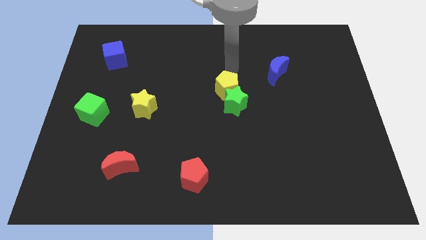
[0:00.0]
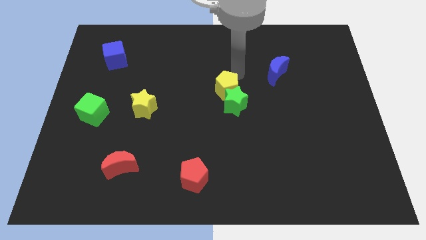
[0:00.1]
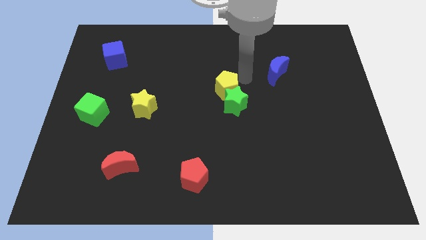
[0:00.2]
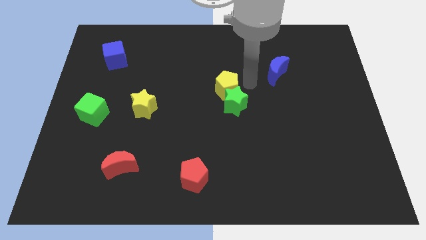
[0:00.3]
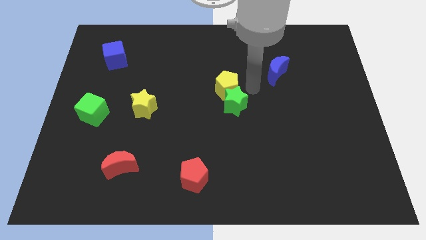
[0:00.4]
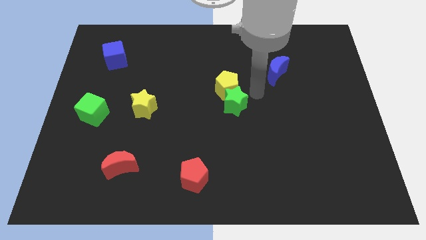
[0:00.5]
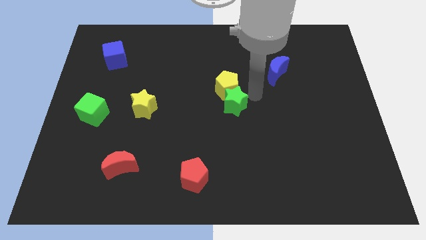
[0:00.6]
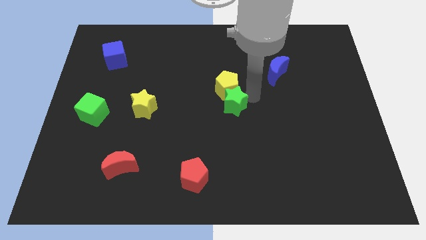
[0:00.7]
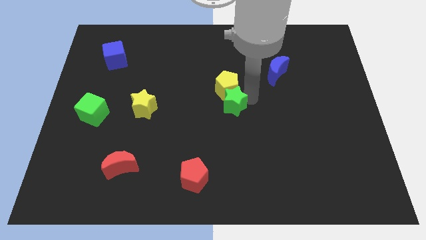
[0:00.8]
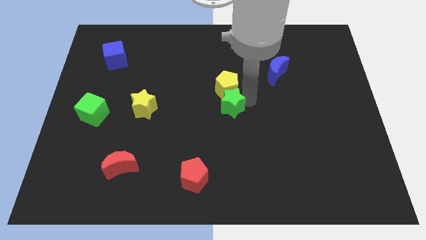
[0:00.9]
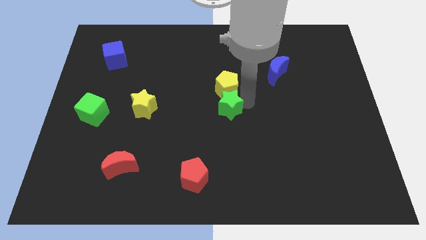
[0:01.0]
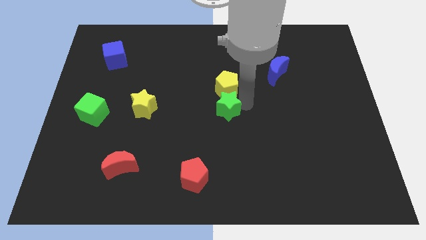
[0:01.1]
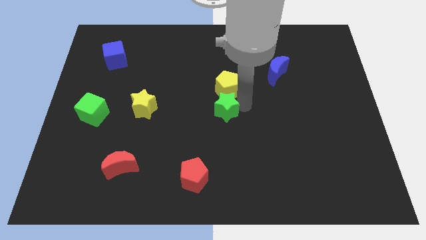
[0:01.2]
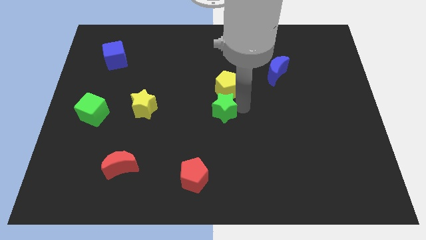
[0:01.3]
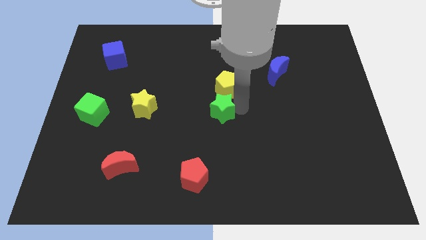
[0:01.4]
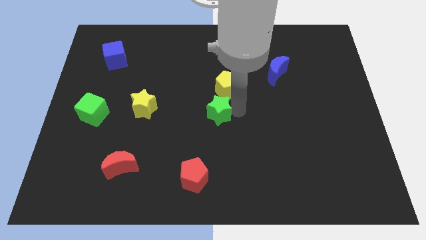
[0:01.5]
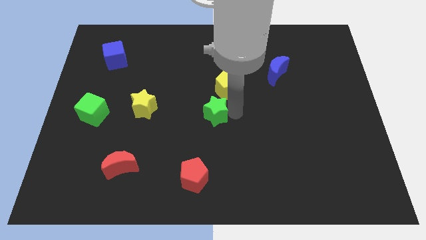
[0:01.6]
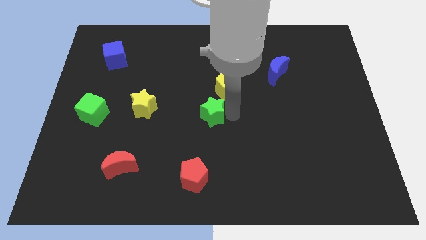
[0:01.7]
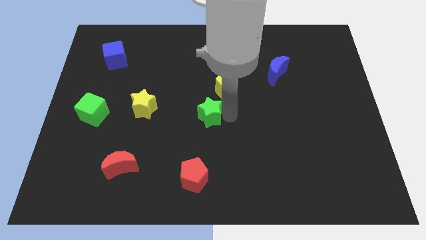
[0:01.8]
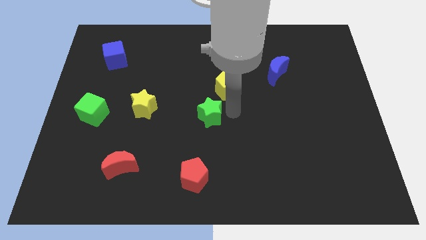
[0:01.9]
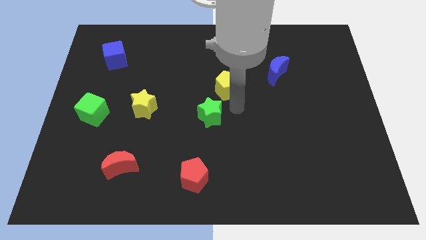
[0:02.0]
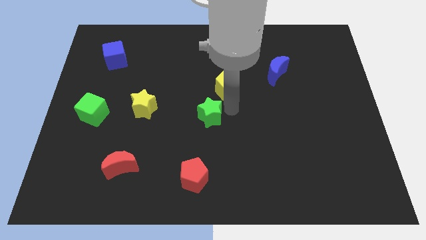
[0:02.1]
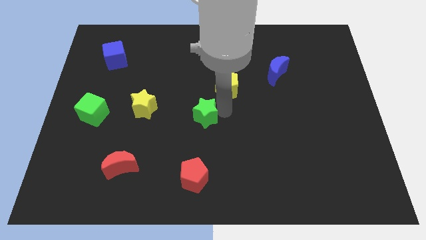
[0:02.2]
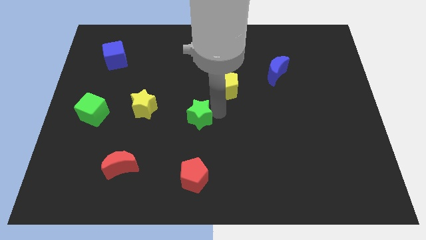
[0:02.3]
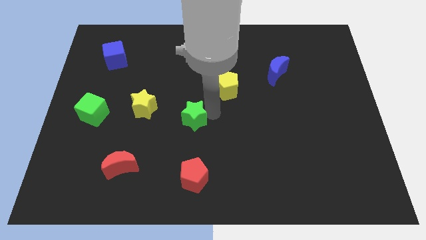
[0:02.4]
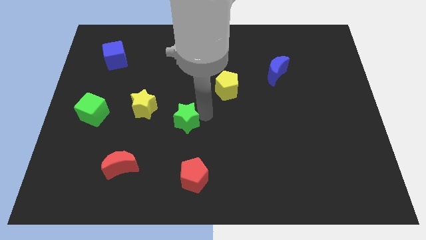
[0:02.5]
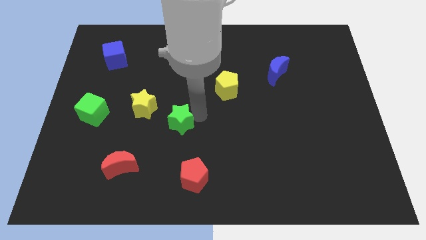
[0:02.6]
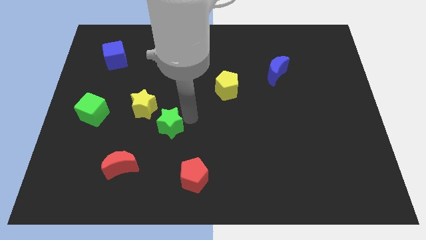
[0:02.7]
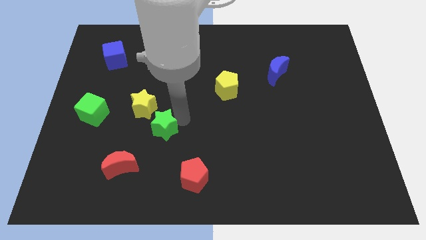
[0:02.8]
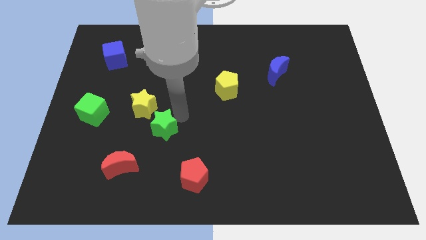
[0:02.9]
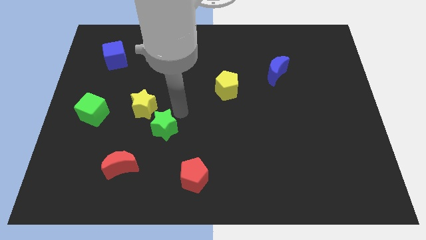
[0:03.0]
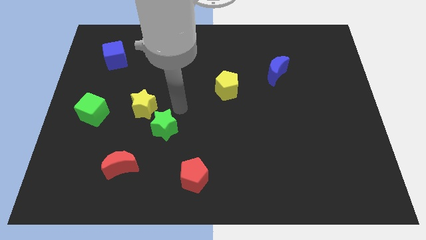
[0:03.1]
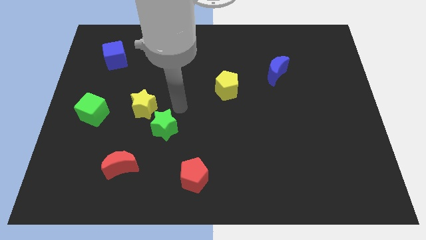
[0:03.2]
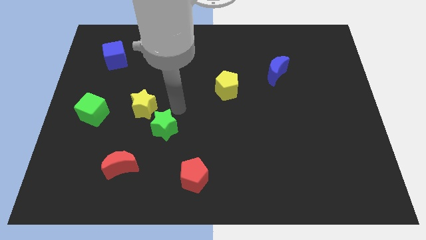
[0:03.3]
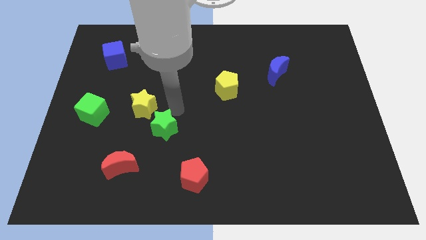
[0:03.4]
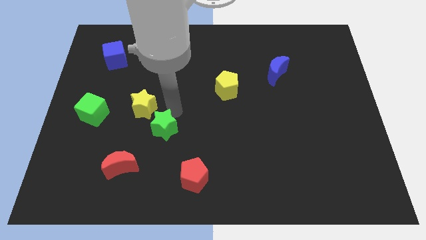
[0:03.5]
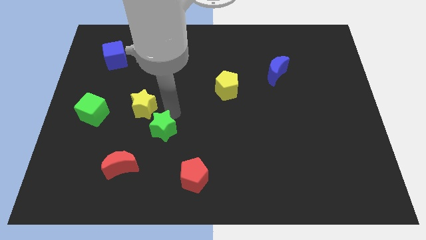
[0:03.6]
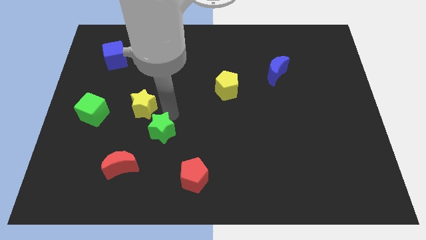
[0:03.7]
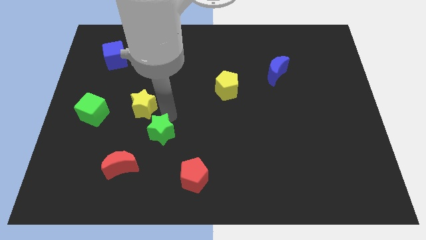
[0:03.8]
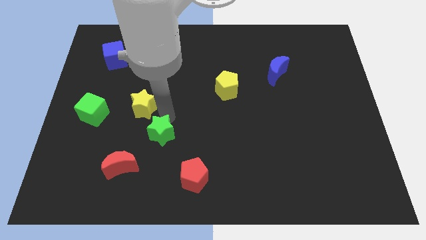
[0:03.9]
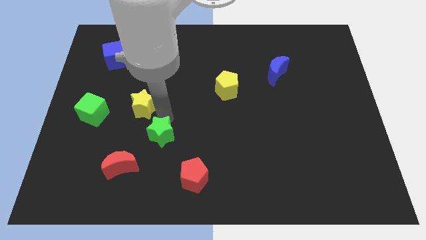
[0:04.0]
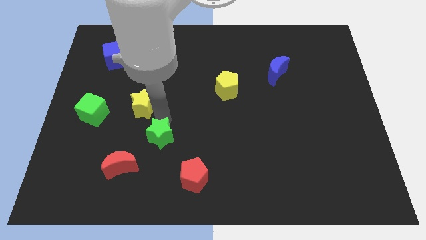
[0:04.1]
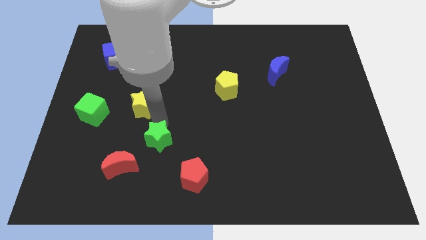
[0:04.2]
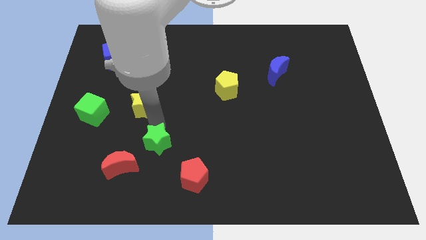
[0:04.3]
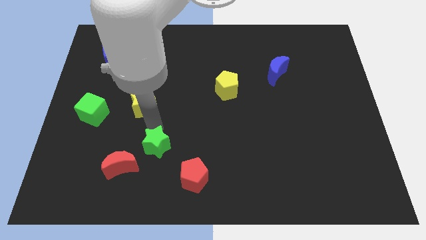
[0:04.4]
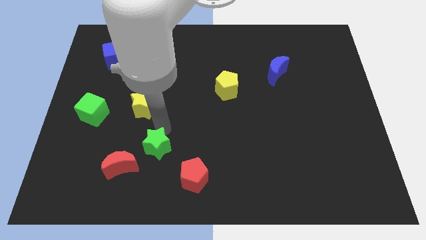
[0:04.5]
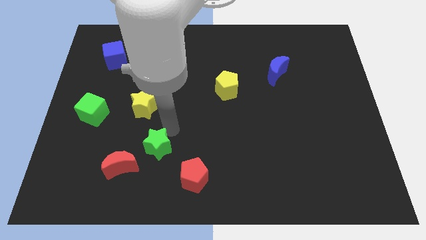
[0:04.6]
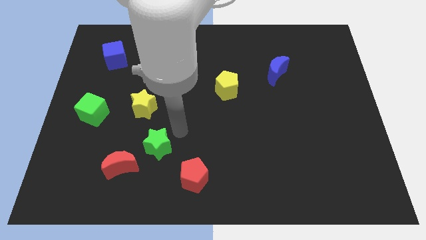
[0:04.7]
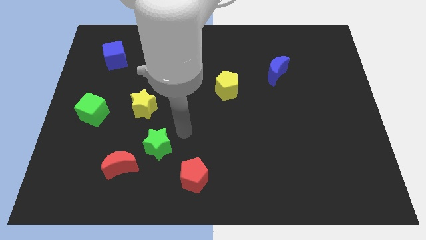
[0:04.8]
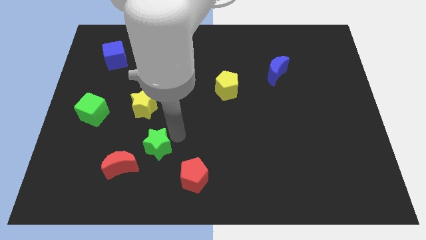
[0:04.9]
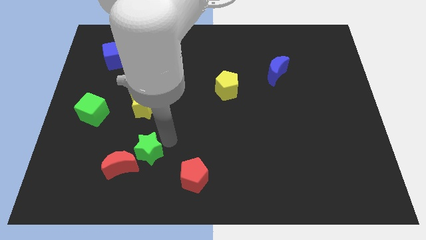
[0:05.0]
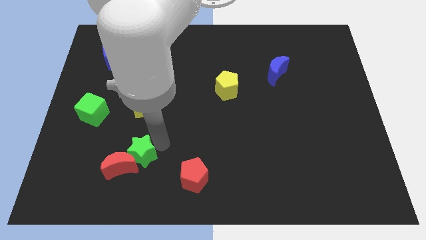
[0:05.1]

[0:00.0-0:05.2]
push the green star to the red moon

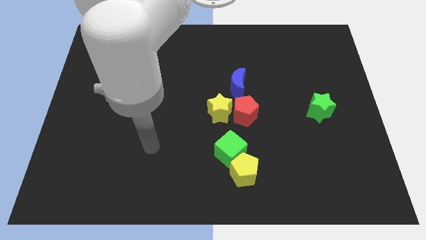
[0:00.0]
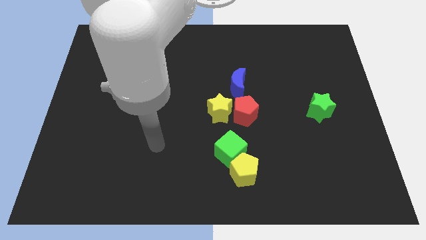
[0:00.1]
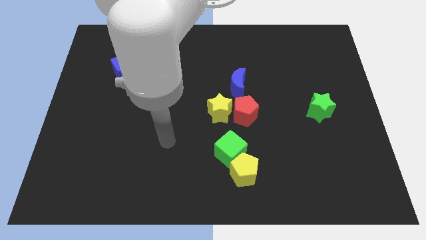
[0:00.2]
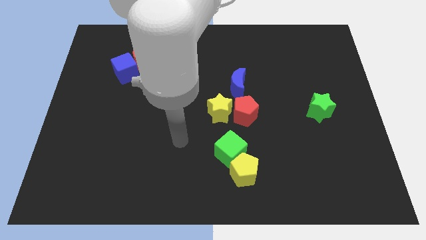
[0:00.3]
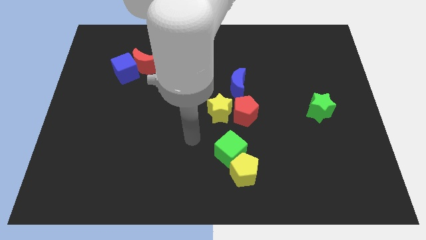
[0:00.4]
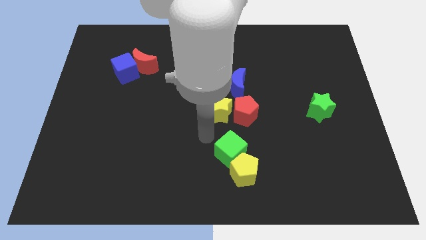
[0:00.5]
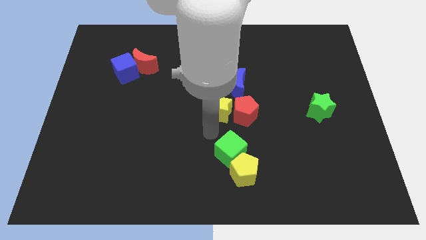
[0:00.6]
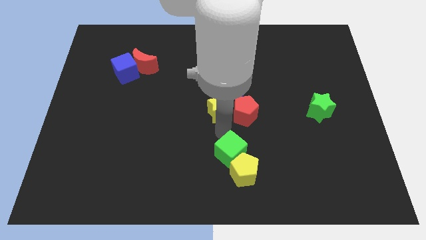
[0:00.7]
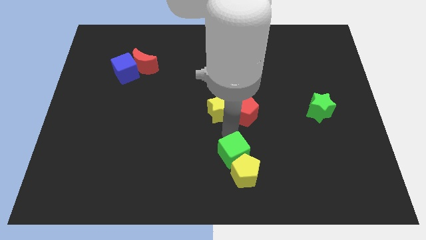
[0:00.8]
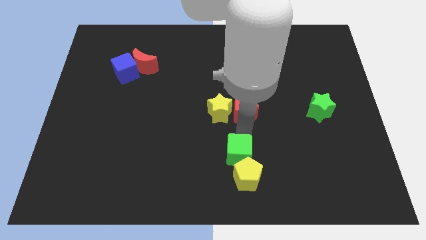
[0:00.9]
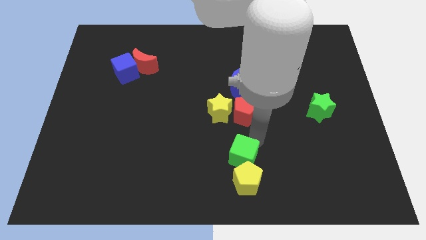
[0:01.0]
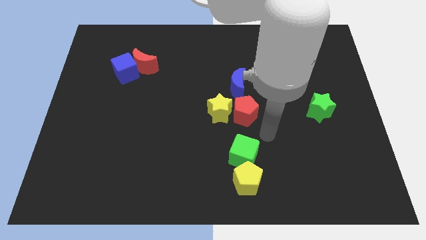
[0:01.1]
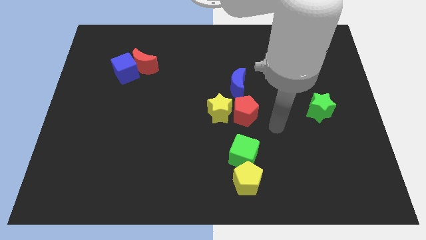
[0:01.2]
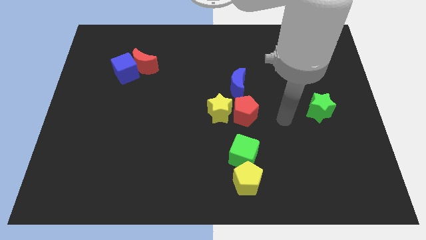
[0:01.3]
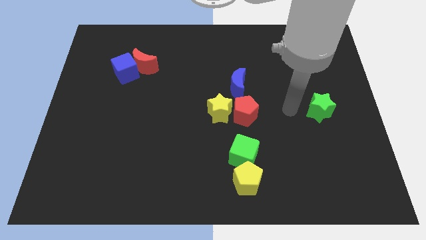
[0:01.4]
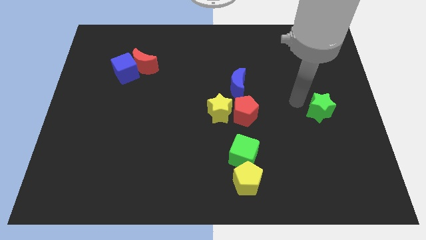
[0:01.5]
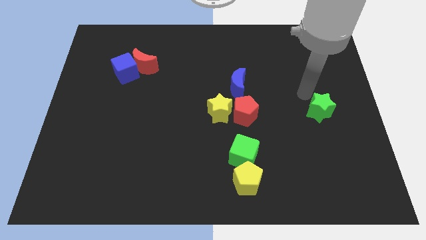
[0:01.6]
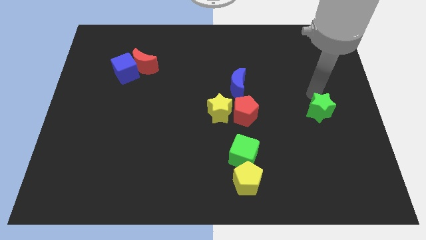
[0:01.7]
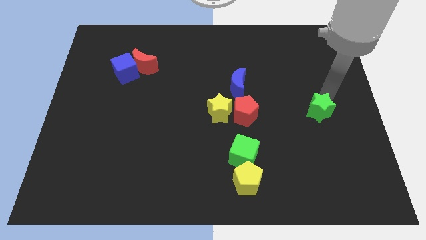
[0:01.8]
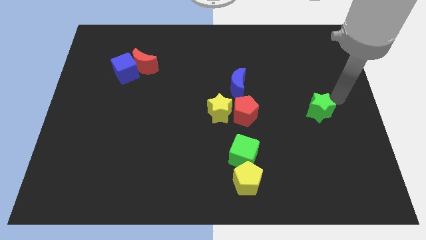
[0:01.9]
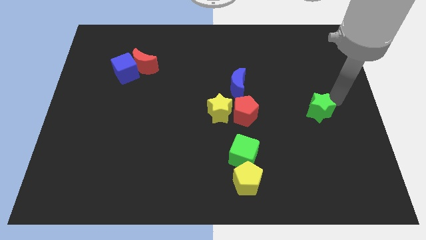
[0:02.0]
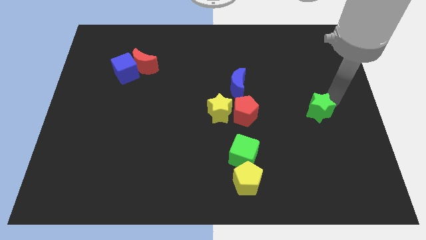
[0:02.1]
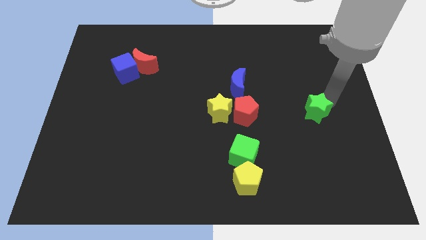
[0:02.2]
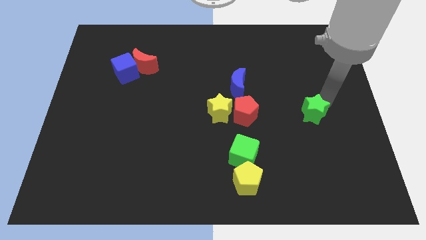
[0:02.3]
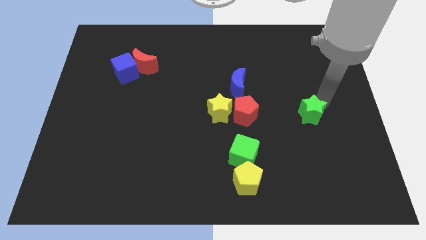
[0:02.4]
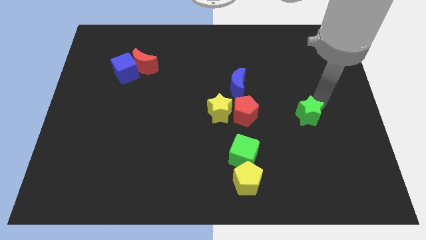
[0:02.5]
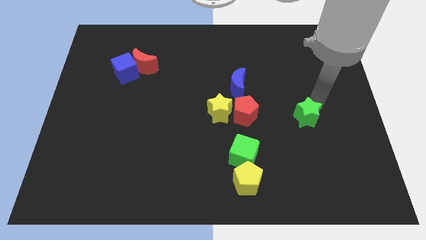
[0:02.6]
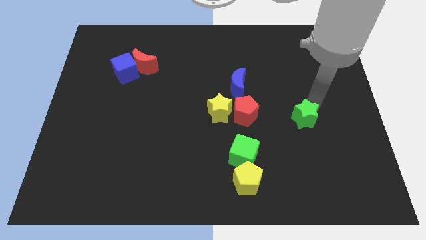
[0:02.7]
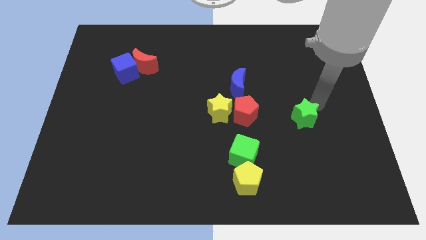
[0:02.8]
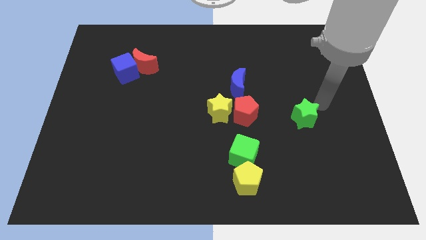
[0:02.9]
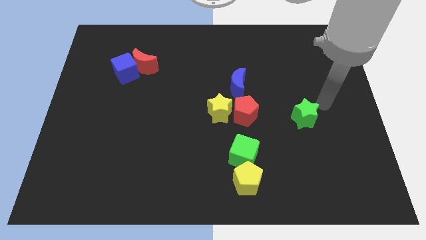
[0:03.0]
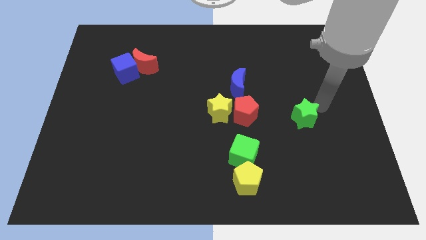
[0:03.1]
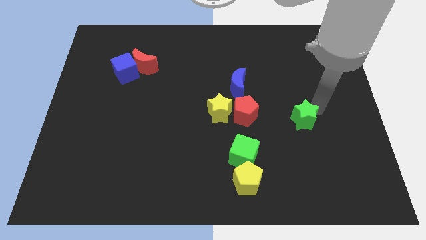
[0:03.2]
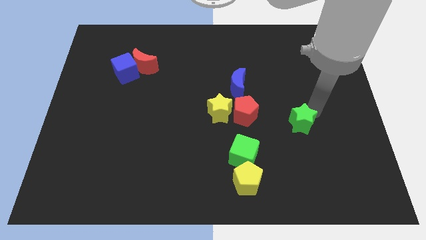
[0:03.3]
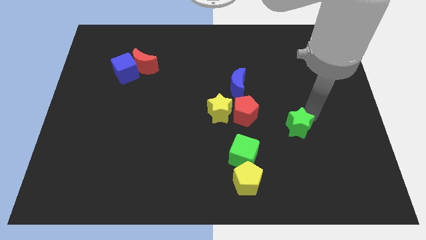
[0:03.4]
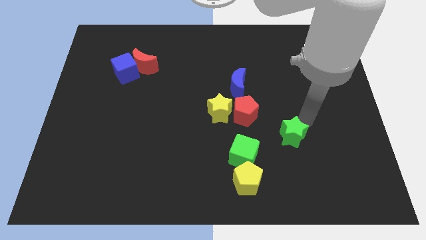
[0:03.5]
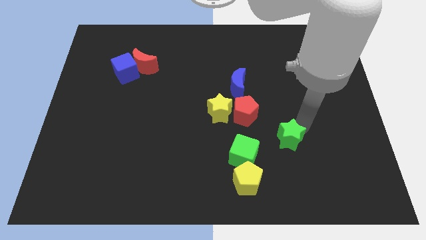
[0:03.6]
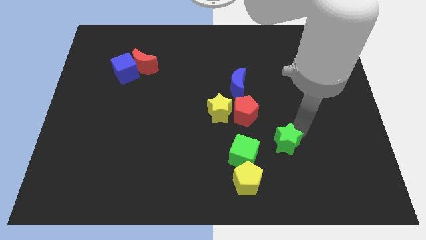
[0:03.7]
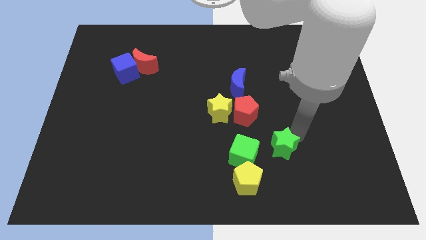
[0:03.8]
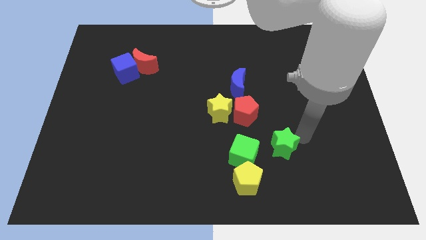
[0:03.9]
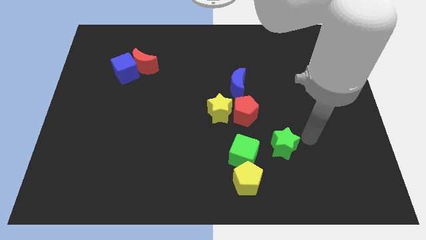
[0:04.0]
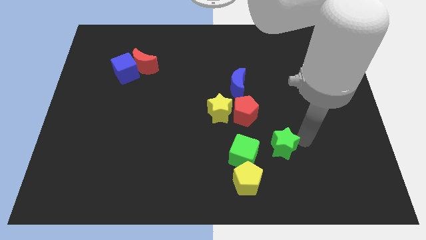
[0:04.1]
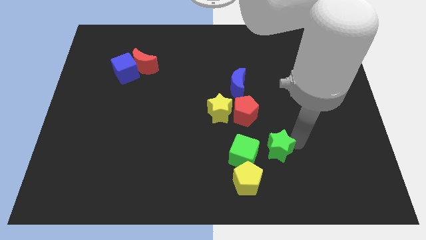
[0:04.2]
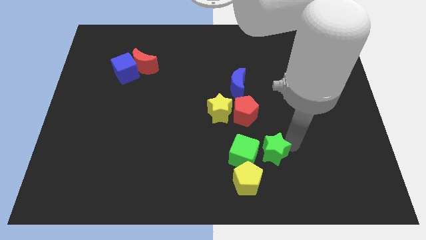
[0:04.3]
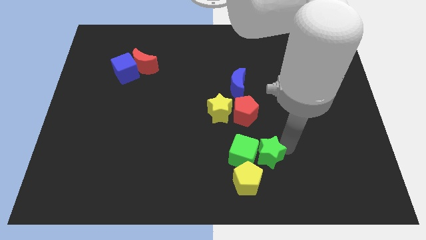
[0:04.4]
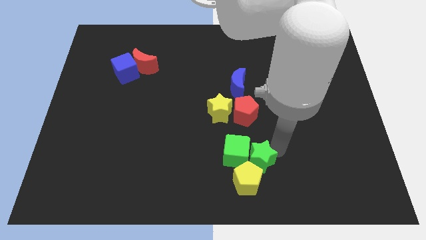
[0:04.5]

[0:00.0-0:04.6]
slide the green star to the yellow pentagon
